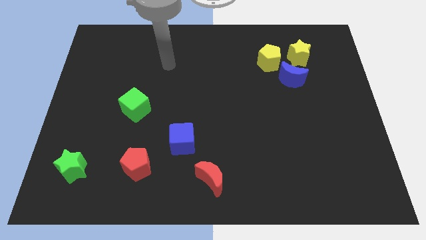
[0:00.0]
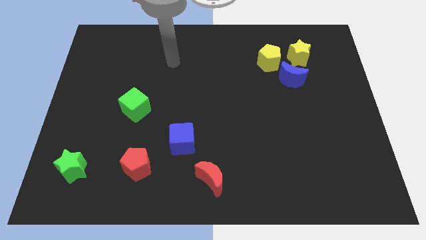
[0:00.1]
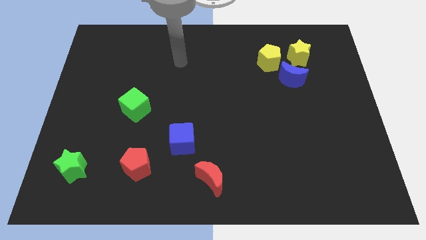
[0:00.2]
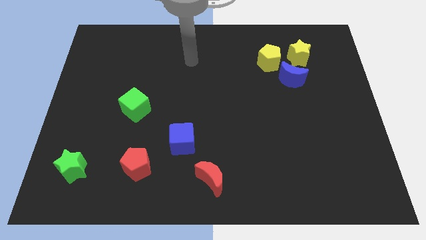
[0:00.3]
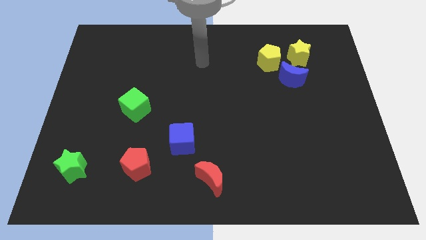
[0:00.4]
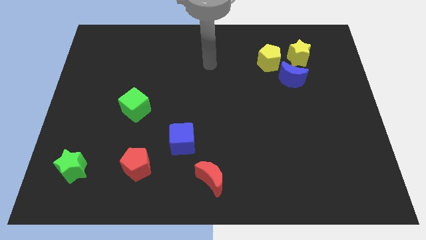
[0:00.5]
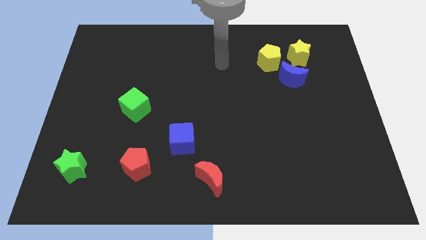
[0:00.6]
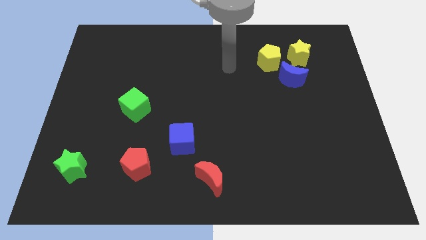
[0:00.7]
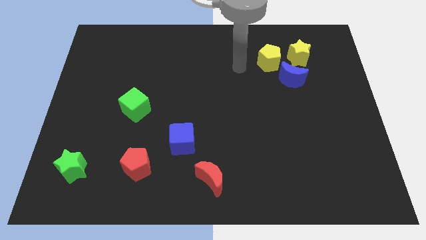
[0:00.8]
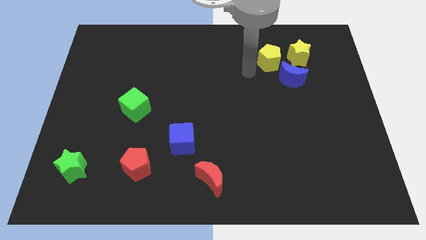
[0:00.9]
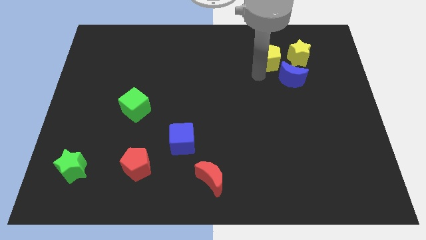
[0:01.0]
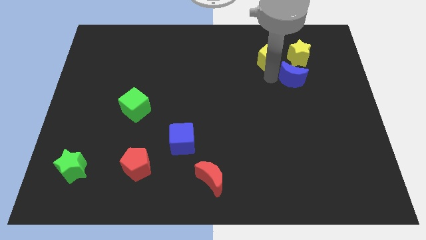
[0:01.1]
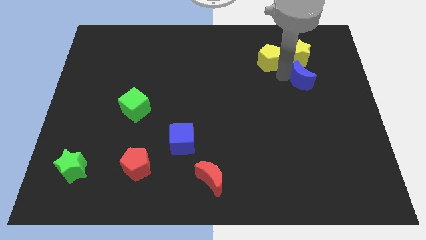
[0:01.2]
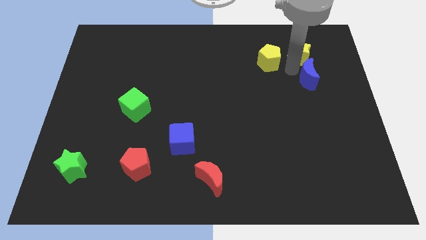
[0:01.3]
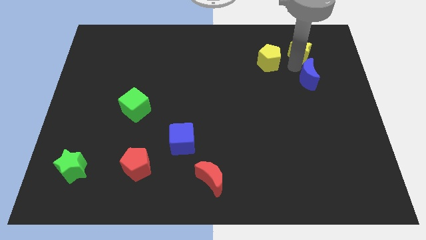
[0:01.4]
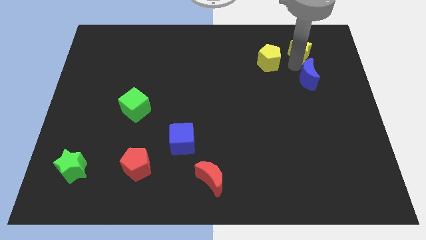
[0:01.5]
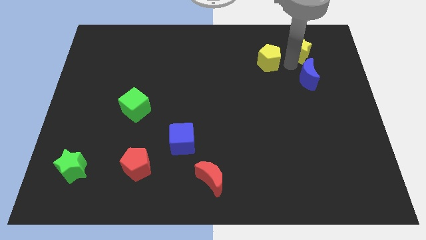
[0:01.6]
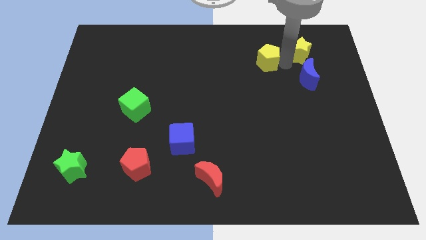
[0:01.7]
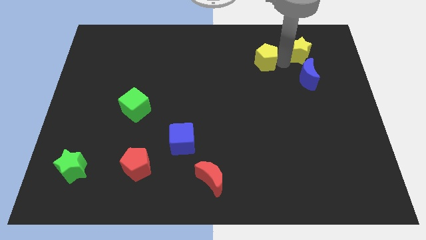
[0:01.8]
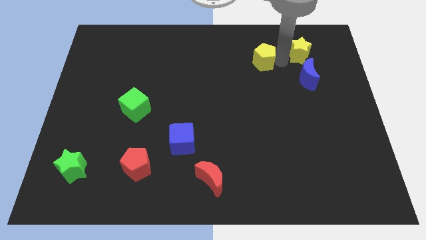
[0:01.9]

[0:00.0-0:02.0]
pull the yellow pentagon apart from the blue moon and yellow star

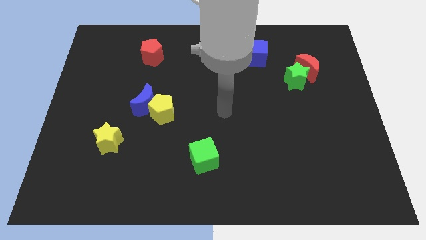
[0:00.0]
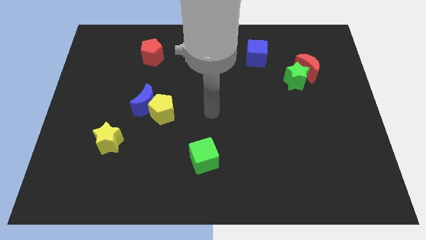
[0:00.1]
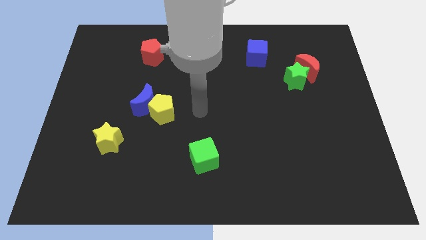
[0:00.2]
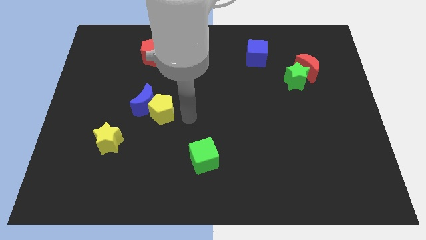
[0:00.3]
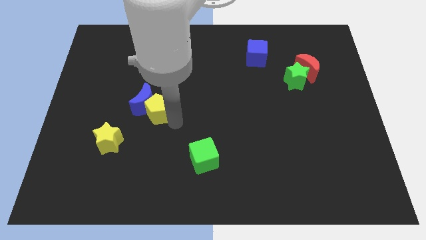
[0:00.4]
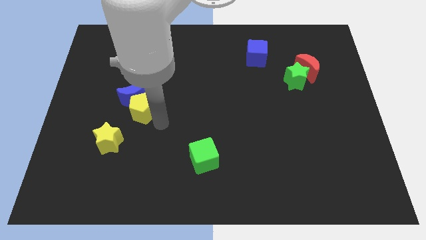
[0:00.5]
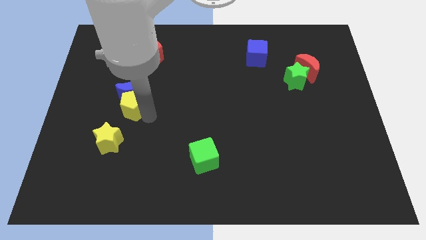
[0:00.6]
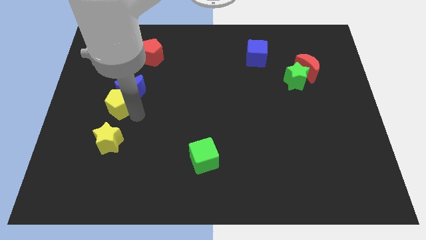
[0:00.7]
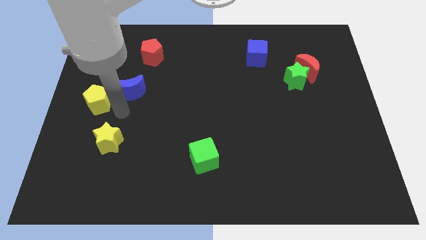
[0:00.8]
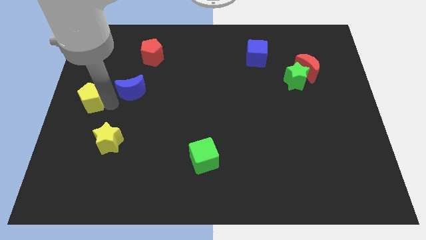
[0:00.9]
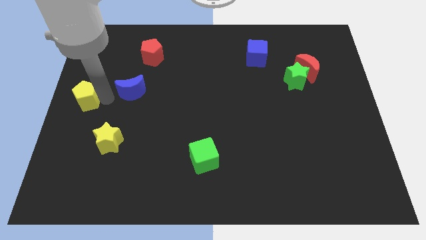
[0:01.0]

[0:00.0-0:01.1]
move the blue moon away from the yellow pentagon

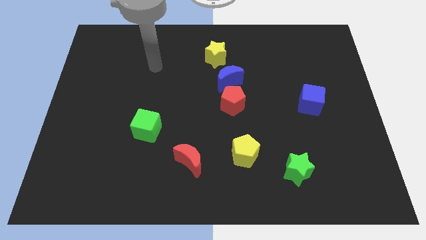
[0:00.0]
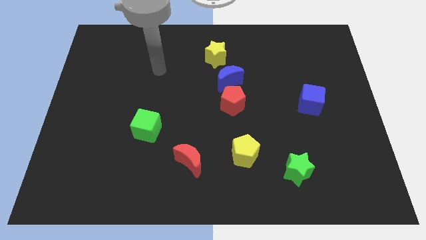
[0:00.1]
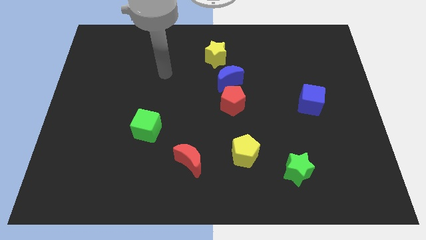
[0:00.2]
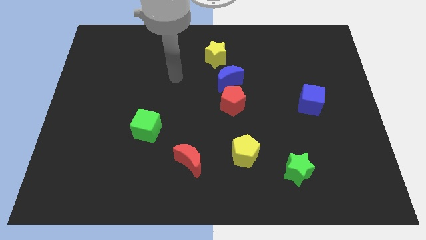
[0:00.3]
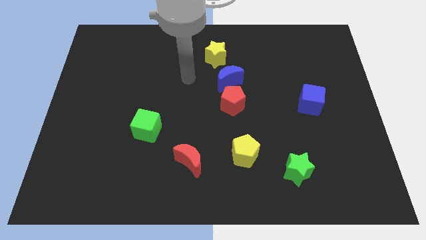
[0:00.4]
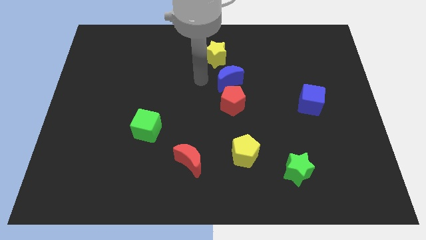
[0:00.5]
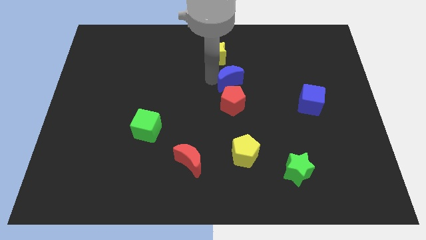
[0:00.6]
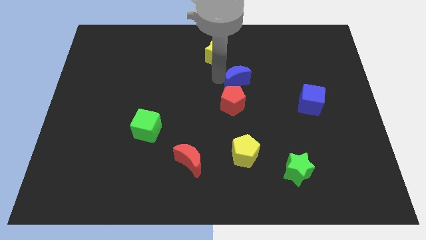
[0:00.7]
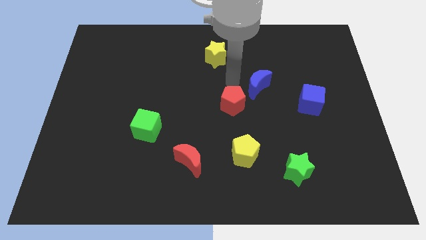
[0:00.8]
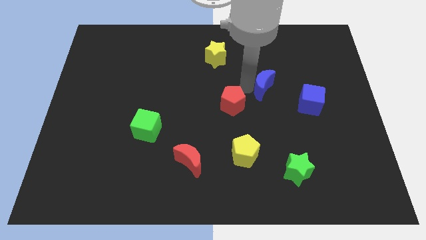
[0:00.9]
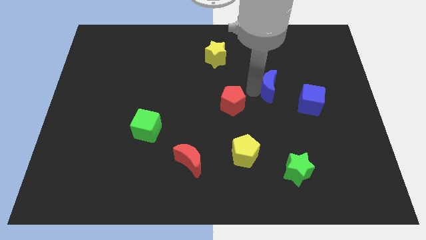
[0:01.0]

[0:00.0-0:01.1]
pull the red pentagon apart from the blue moon

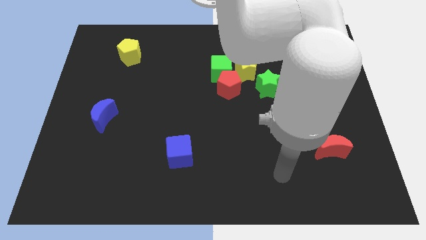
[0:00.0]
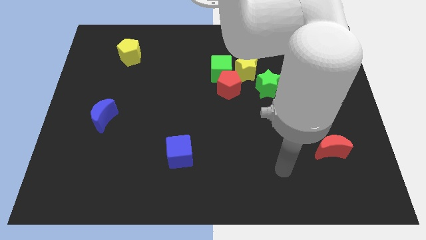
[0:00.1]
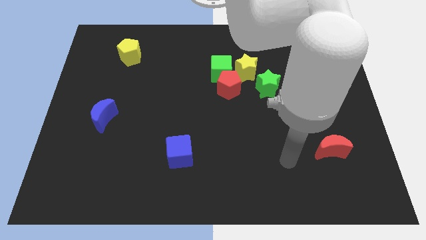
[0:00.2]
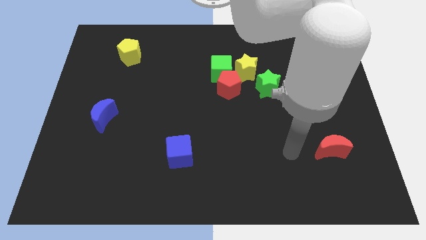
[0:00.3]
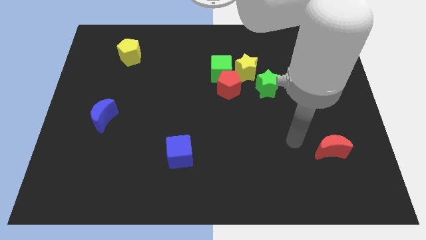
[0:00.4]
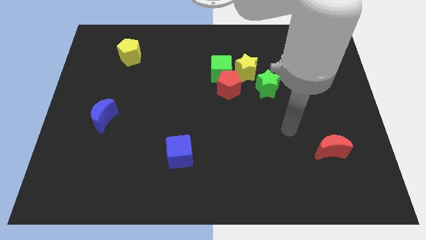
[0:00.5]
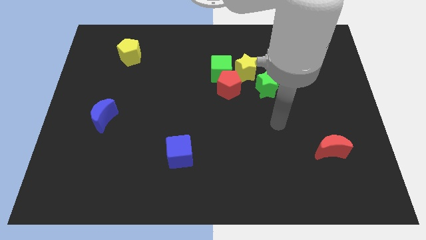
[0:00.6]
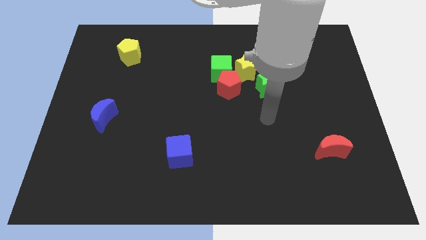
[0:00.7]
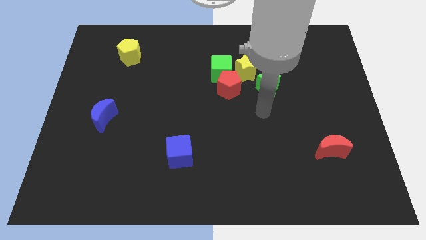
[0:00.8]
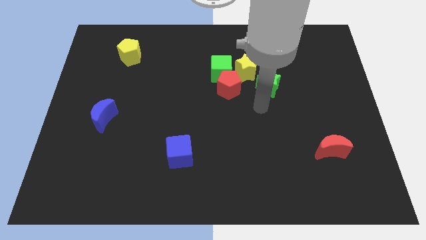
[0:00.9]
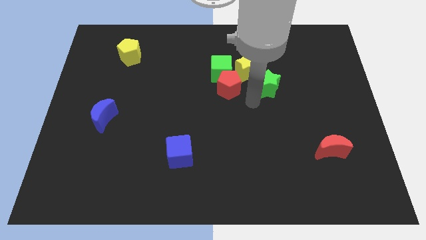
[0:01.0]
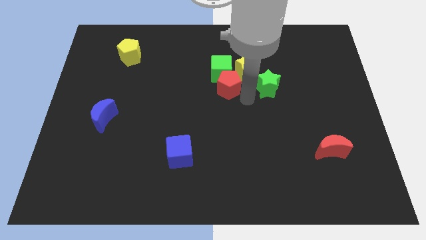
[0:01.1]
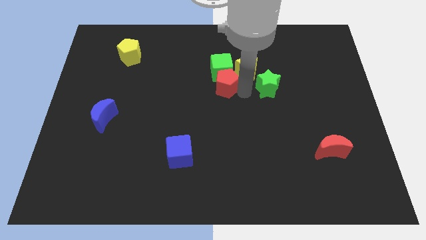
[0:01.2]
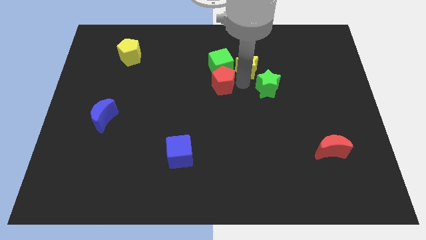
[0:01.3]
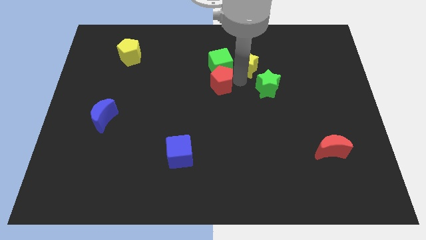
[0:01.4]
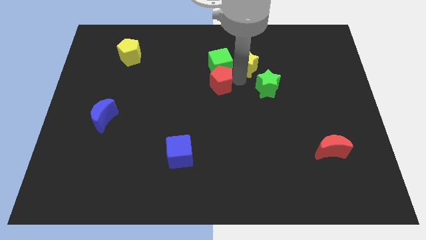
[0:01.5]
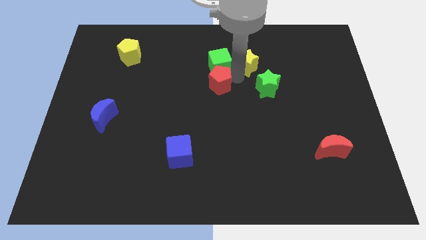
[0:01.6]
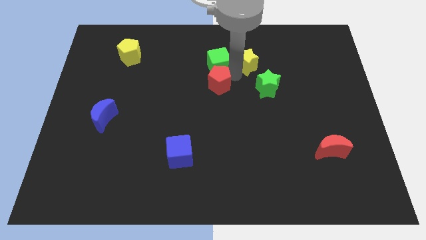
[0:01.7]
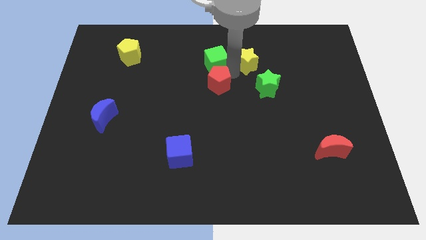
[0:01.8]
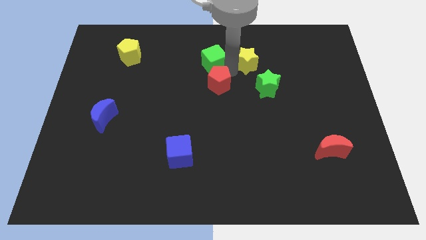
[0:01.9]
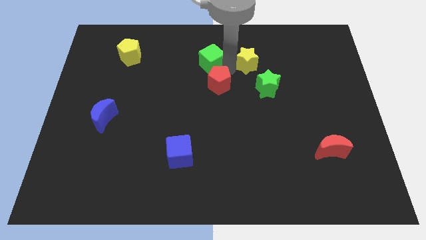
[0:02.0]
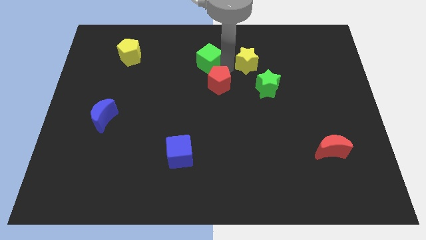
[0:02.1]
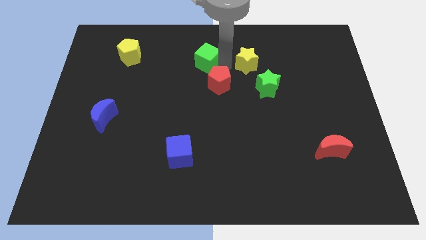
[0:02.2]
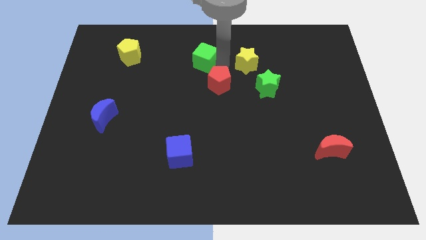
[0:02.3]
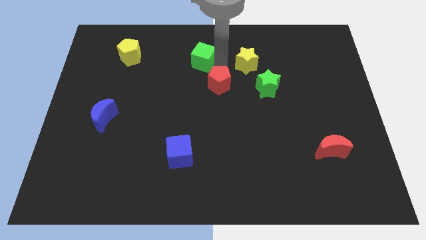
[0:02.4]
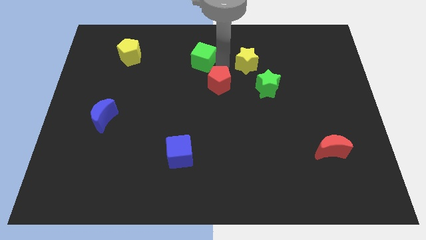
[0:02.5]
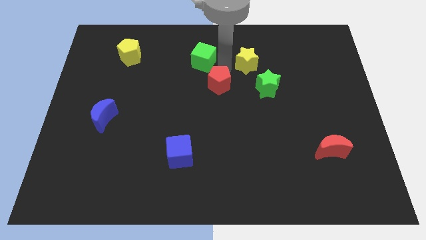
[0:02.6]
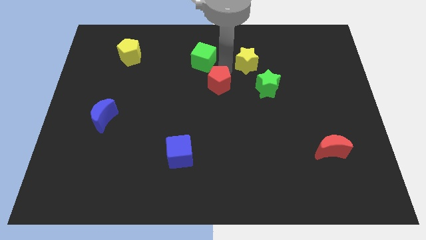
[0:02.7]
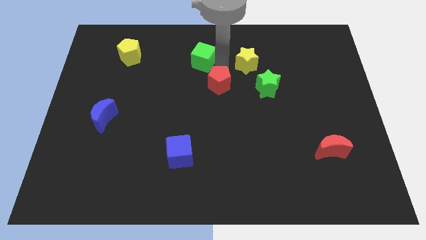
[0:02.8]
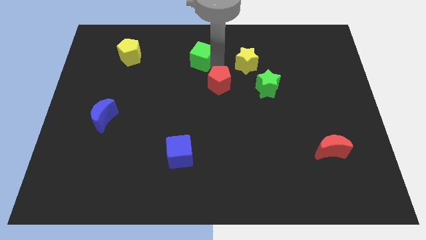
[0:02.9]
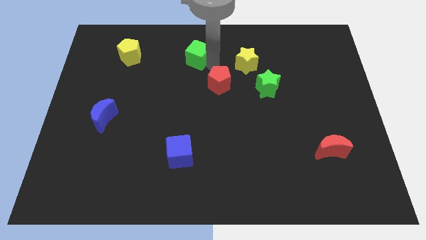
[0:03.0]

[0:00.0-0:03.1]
separate the green cube from the red pentagon and yellow star

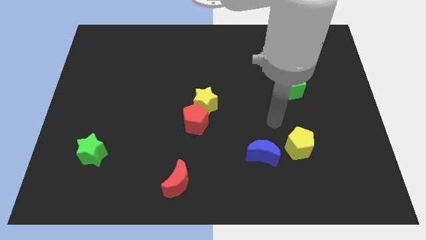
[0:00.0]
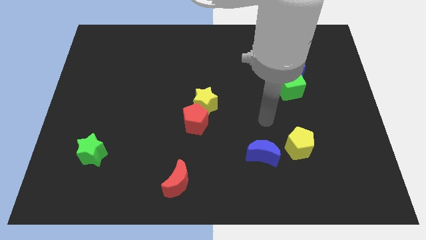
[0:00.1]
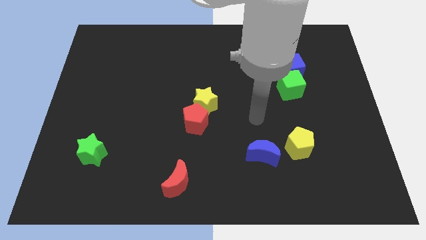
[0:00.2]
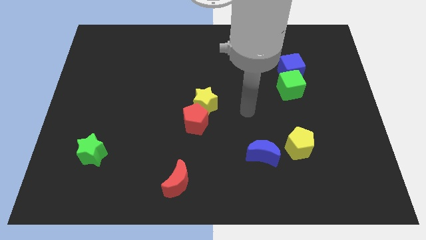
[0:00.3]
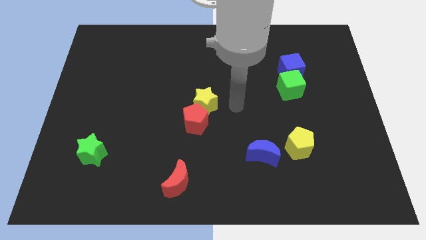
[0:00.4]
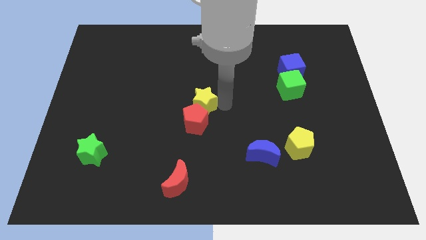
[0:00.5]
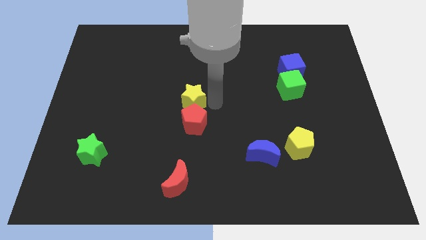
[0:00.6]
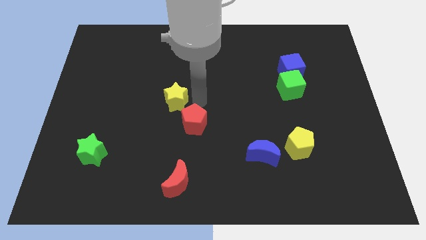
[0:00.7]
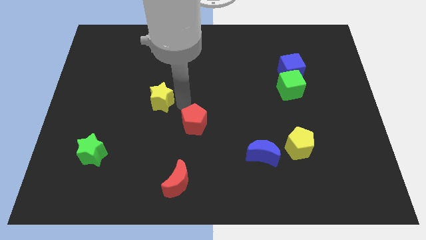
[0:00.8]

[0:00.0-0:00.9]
separate the red pentagon from the yellow star

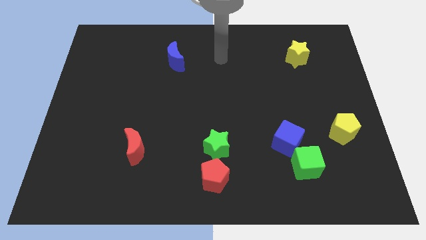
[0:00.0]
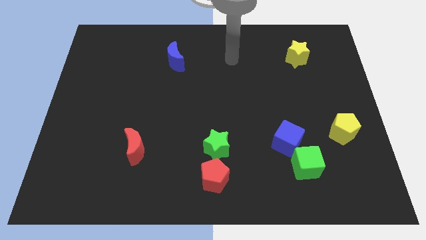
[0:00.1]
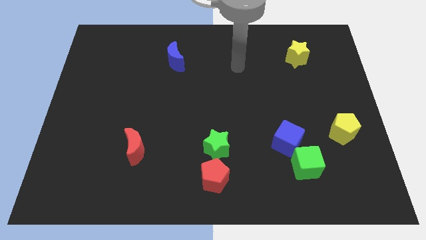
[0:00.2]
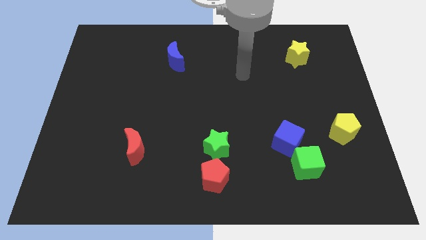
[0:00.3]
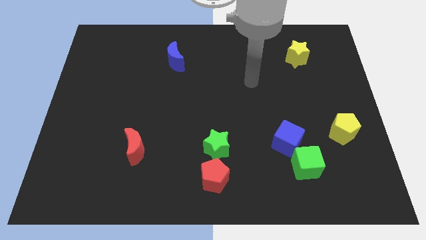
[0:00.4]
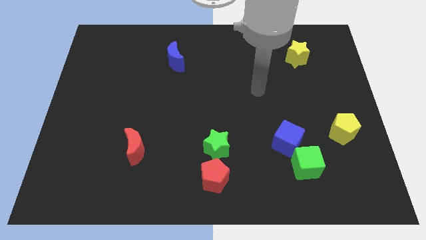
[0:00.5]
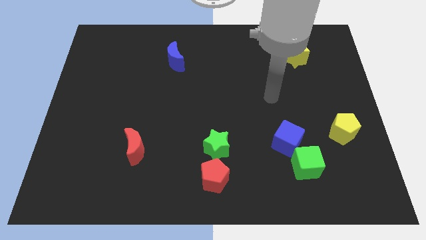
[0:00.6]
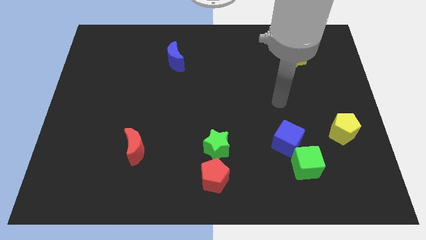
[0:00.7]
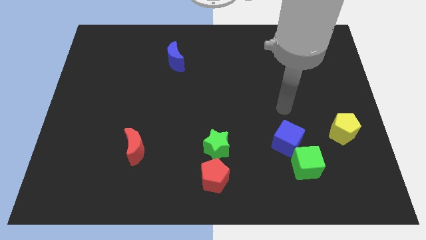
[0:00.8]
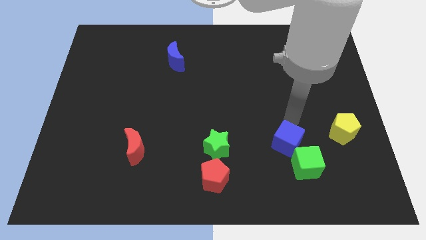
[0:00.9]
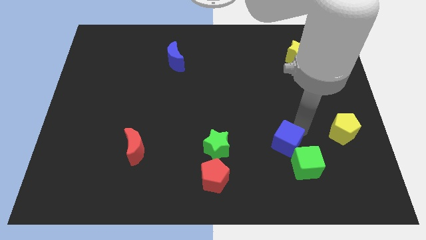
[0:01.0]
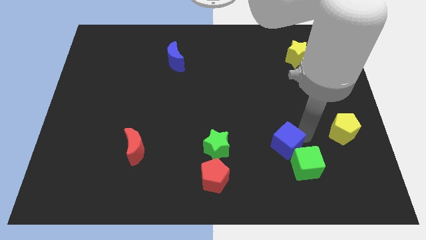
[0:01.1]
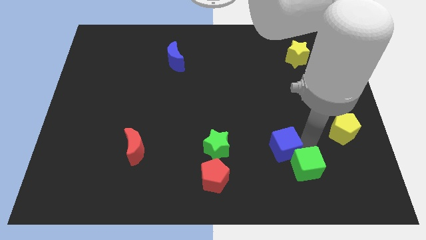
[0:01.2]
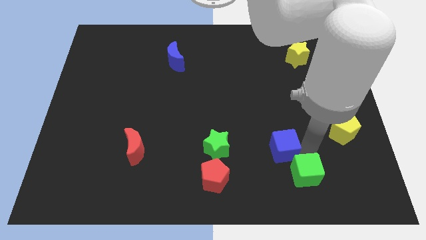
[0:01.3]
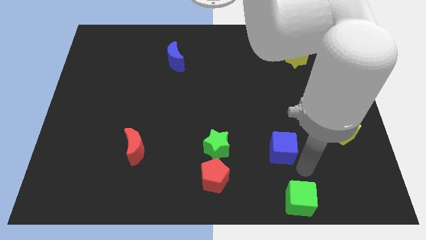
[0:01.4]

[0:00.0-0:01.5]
move the blue cube away from the green cube
